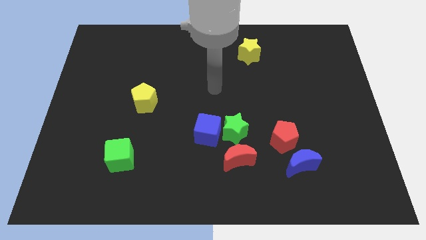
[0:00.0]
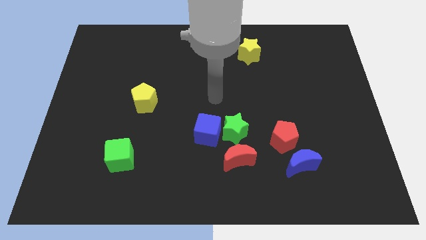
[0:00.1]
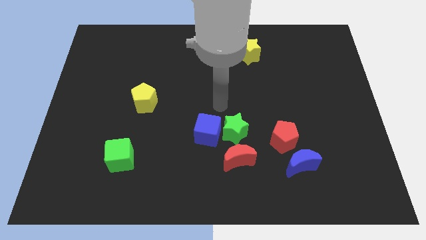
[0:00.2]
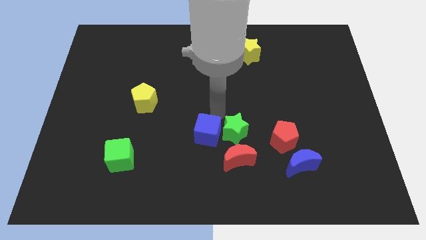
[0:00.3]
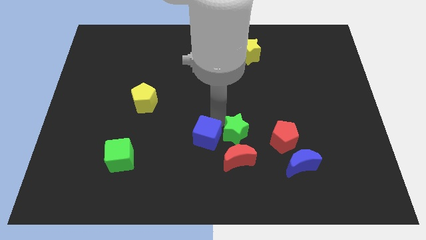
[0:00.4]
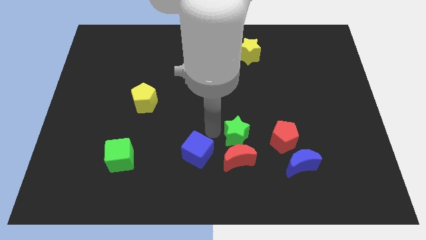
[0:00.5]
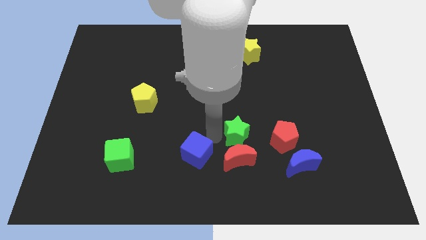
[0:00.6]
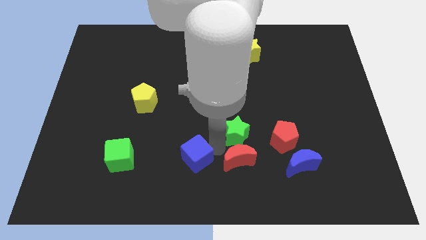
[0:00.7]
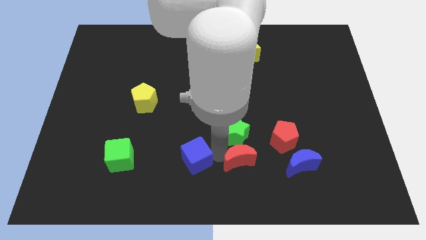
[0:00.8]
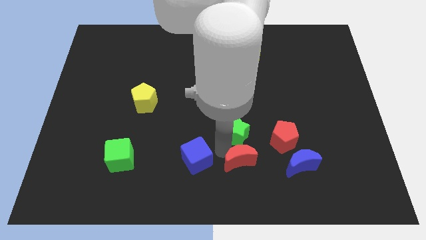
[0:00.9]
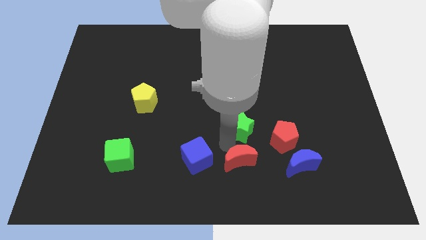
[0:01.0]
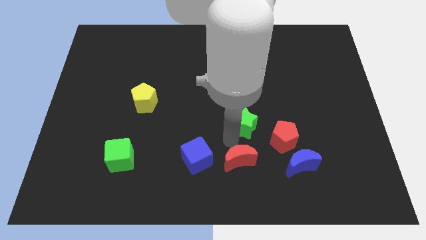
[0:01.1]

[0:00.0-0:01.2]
separate the green star from the blue cube and red moon

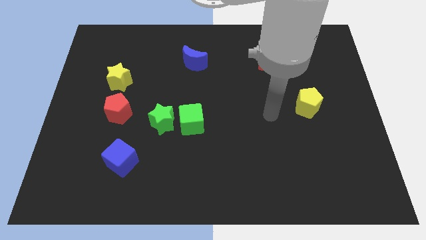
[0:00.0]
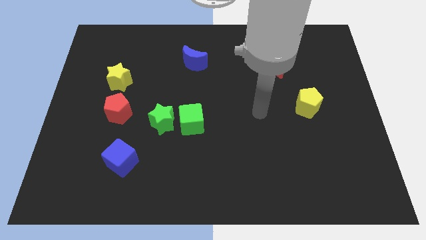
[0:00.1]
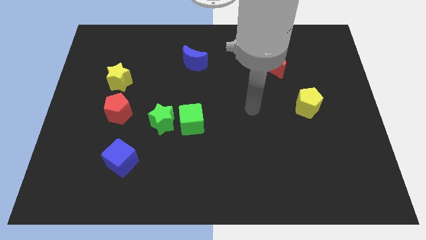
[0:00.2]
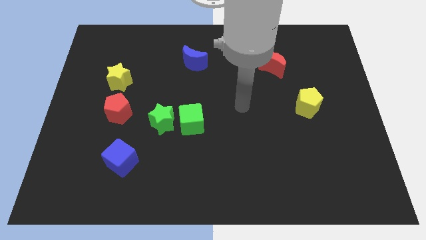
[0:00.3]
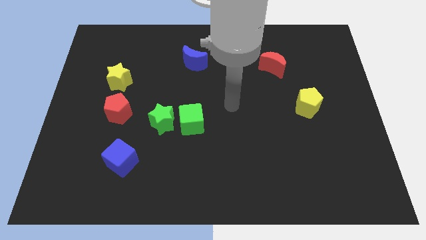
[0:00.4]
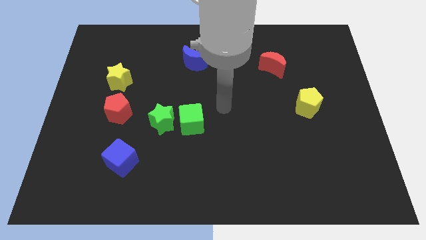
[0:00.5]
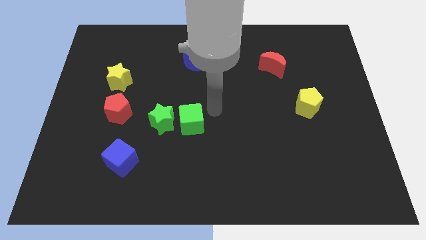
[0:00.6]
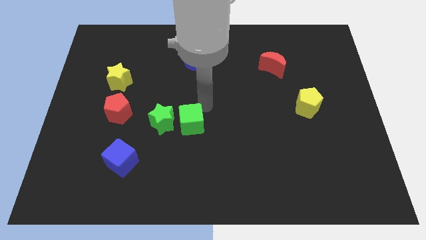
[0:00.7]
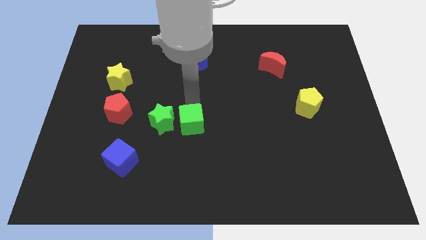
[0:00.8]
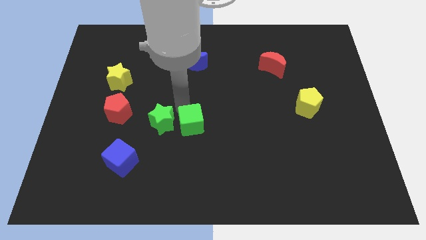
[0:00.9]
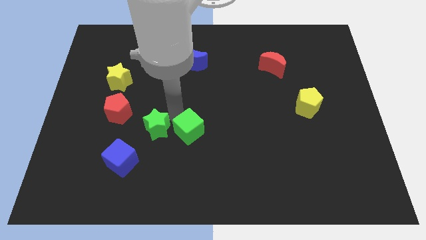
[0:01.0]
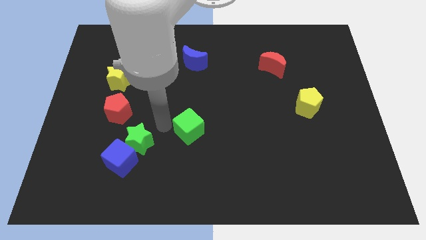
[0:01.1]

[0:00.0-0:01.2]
separate the green cube from the green star

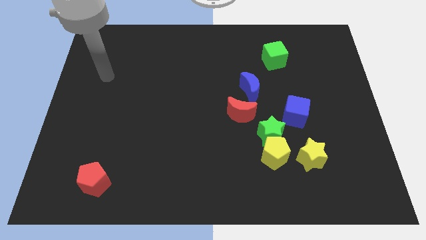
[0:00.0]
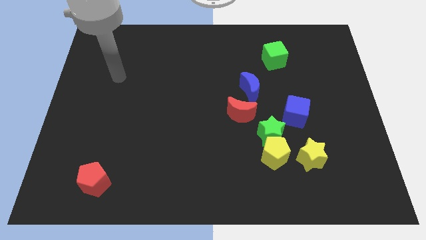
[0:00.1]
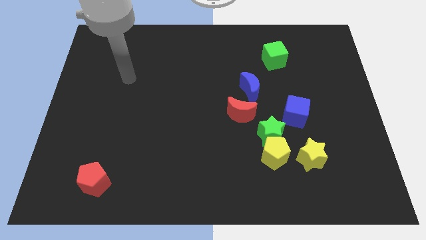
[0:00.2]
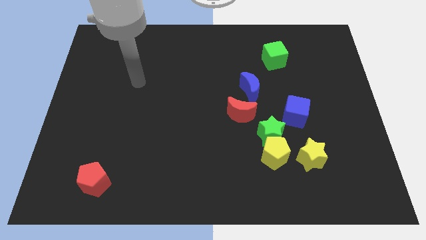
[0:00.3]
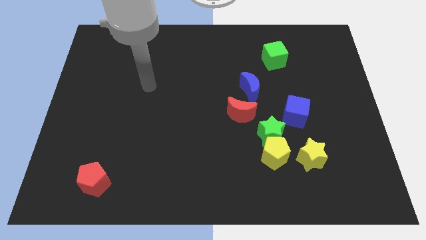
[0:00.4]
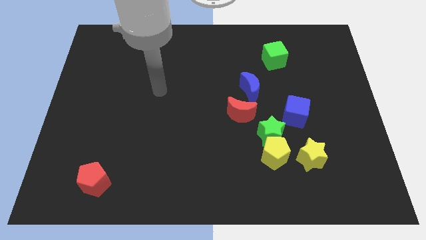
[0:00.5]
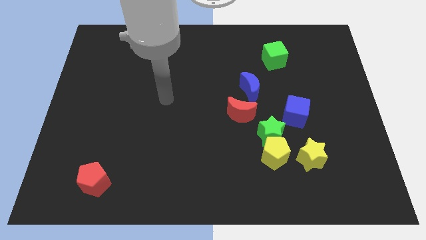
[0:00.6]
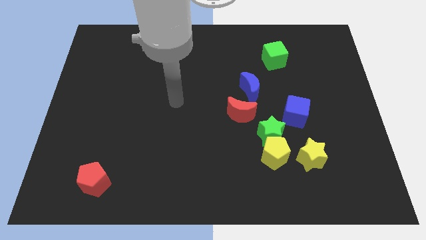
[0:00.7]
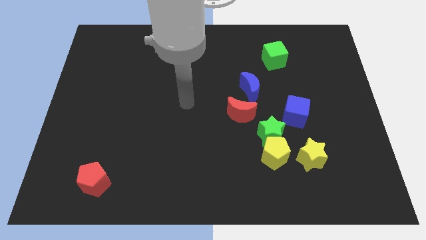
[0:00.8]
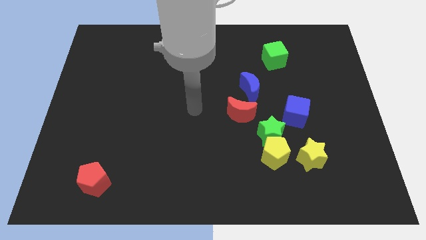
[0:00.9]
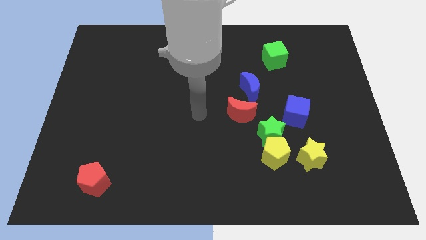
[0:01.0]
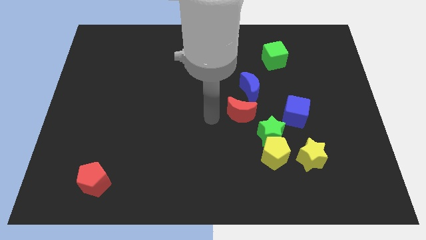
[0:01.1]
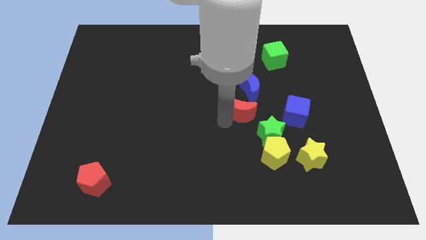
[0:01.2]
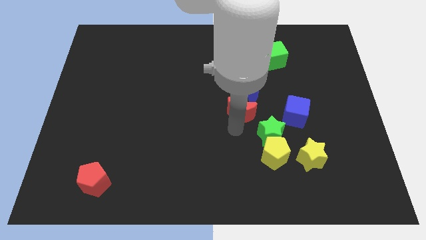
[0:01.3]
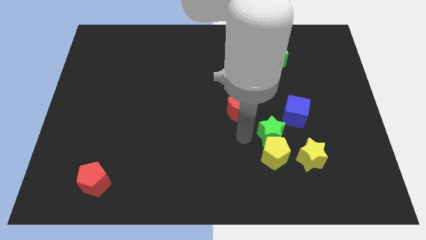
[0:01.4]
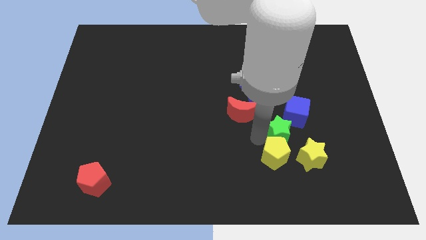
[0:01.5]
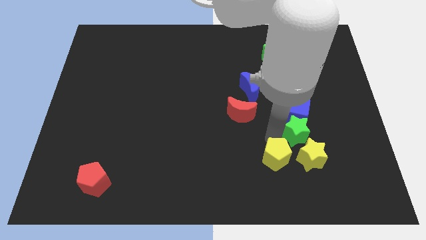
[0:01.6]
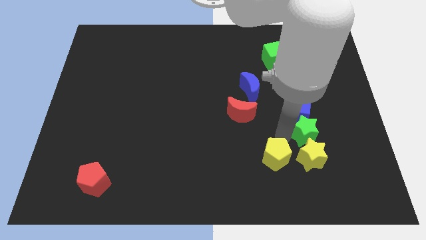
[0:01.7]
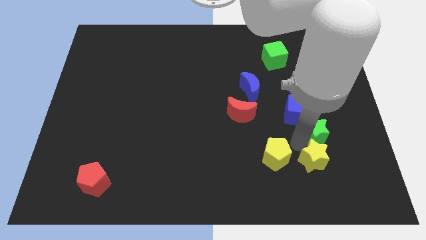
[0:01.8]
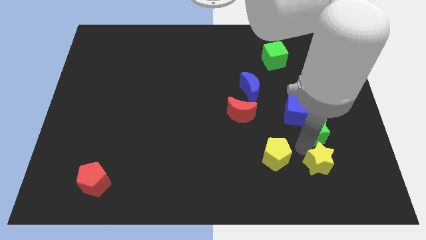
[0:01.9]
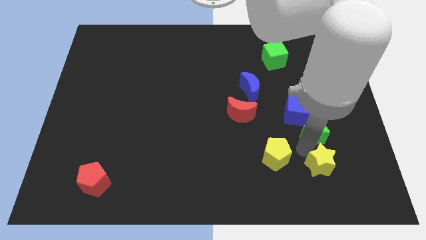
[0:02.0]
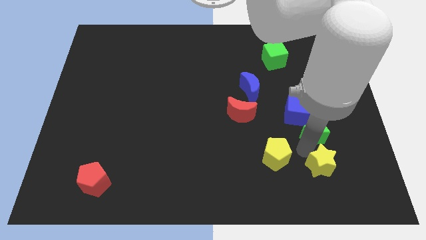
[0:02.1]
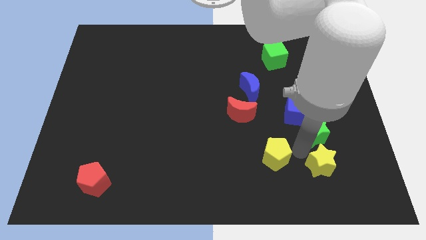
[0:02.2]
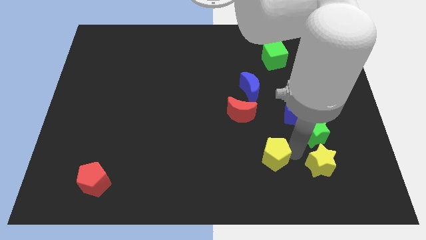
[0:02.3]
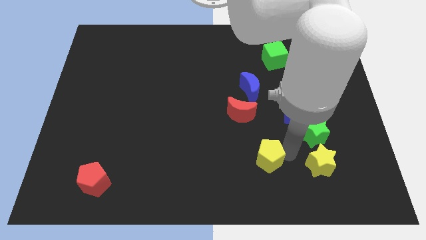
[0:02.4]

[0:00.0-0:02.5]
separate the yellow pentagon from the green star and yellow star

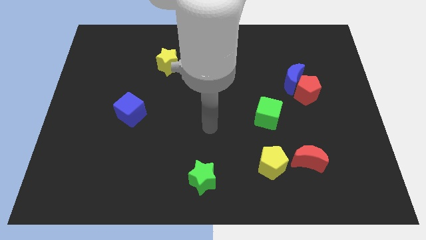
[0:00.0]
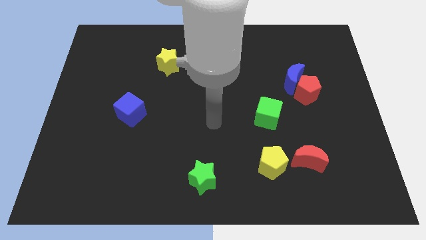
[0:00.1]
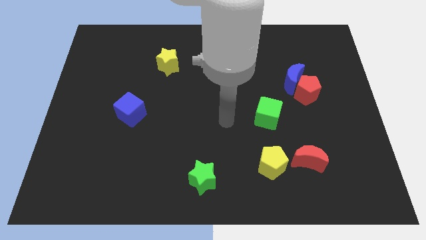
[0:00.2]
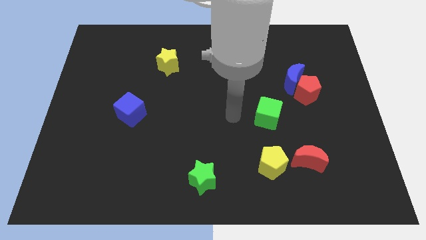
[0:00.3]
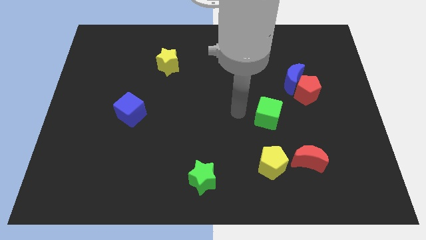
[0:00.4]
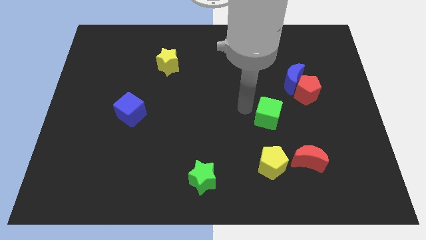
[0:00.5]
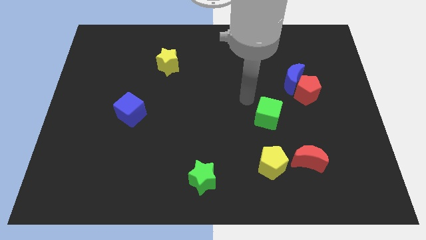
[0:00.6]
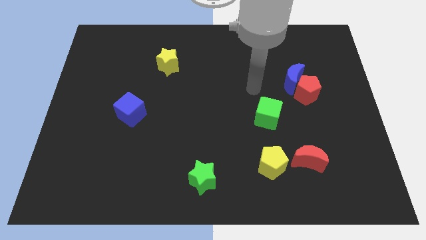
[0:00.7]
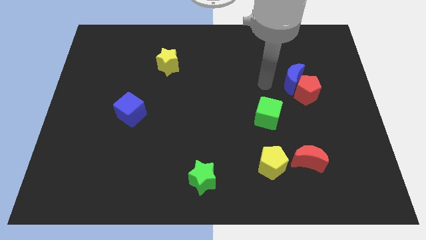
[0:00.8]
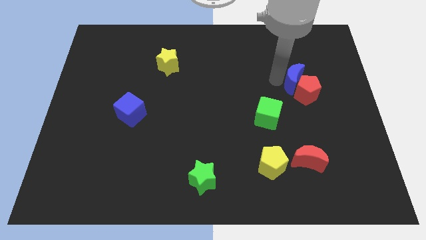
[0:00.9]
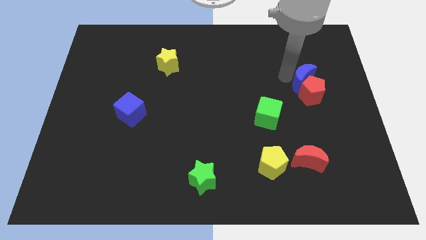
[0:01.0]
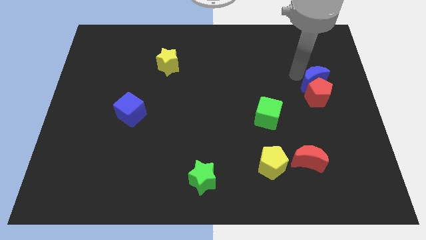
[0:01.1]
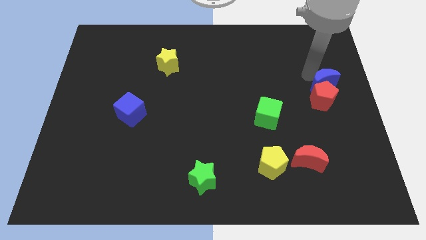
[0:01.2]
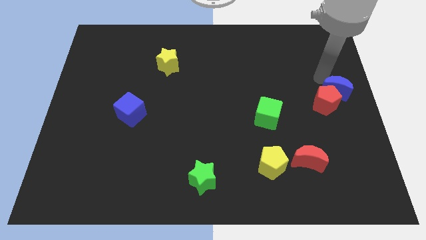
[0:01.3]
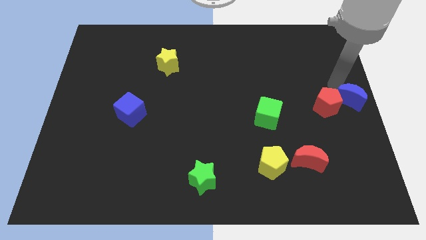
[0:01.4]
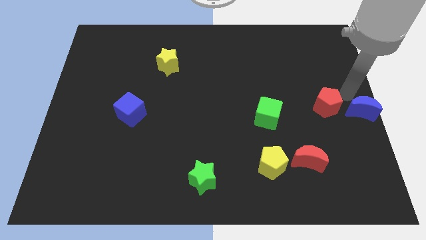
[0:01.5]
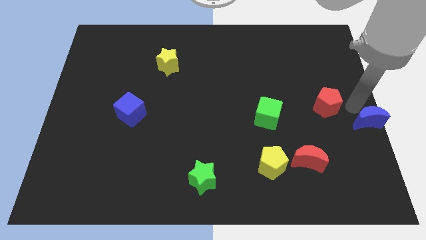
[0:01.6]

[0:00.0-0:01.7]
move the red pentagon away from the blue moon

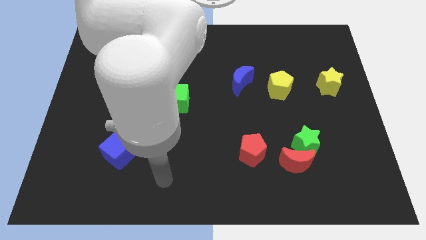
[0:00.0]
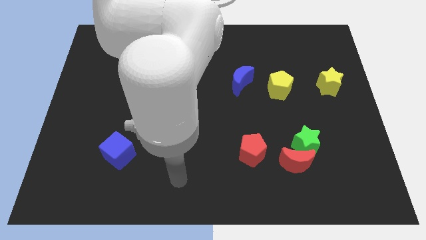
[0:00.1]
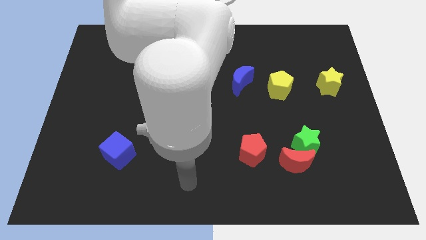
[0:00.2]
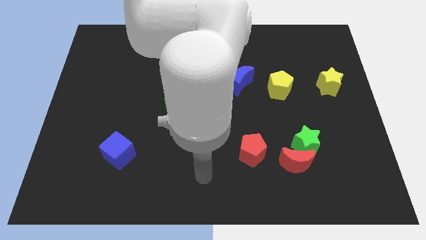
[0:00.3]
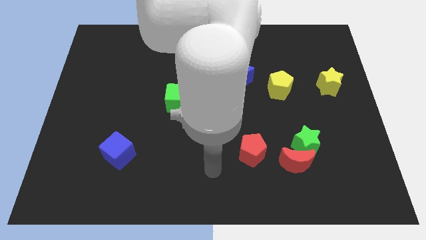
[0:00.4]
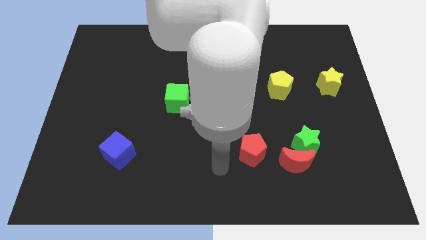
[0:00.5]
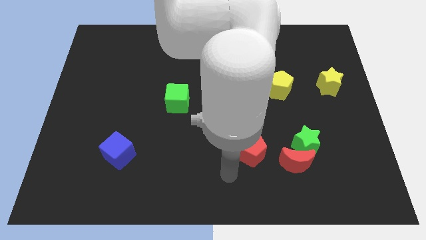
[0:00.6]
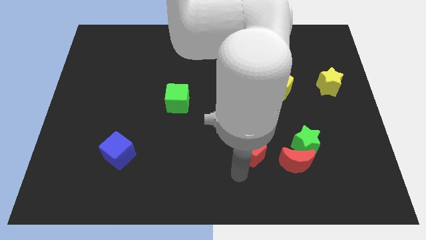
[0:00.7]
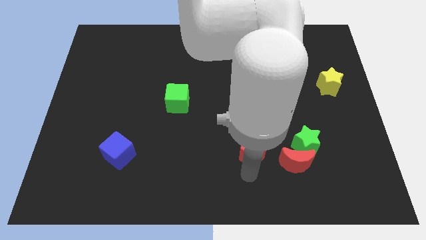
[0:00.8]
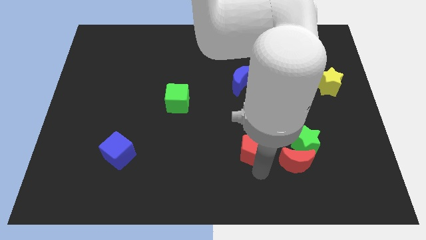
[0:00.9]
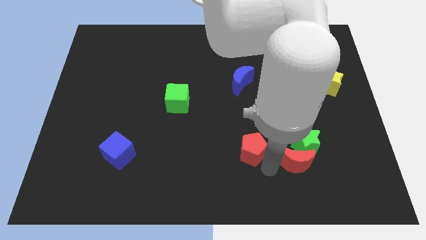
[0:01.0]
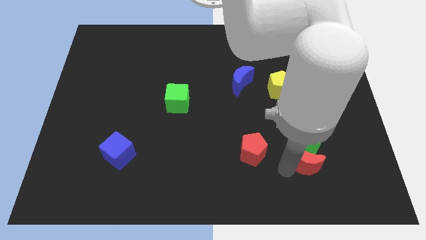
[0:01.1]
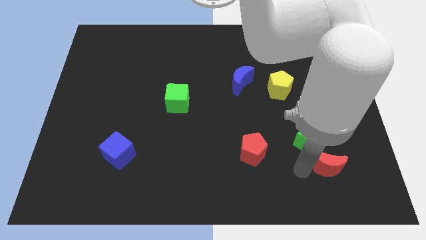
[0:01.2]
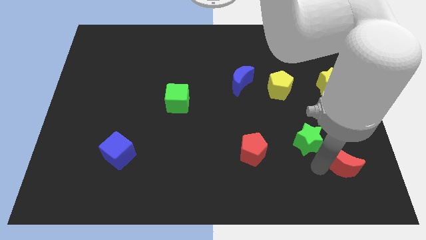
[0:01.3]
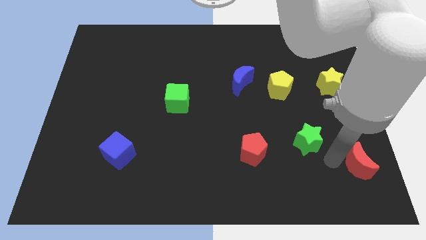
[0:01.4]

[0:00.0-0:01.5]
pull the green star apart from the red moon

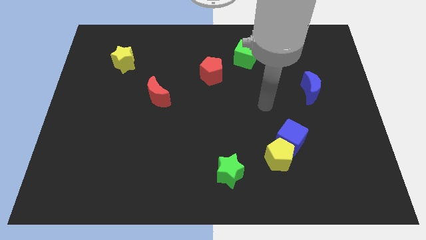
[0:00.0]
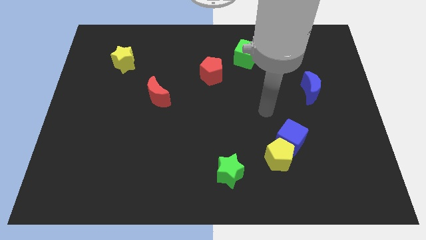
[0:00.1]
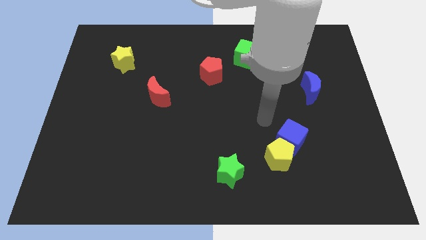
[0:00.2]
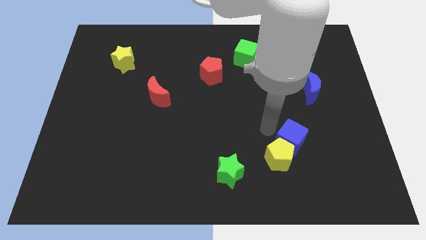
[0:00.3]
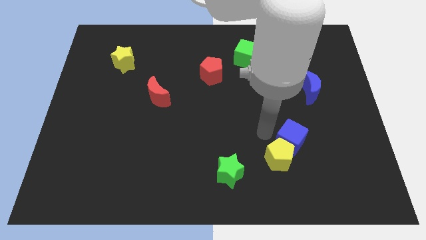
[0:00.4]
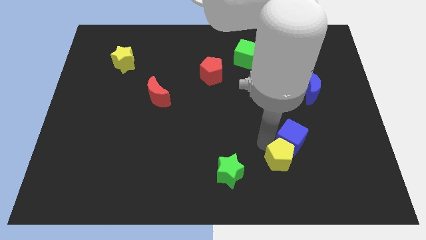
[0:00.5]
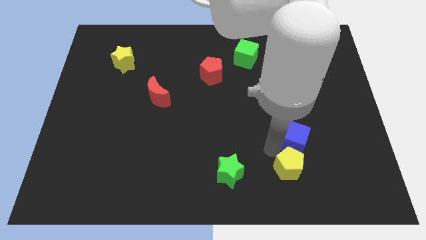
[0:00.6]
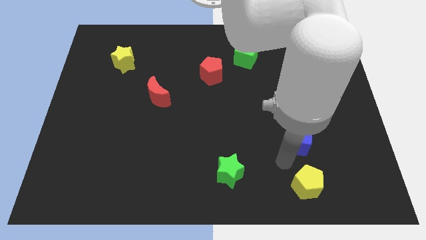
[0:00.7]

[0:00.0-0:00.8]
separate the blue cube from the yellow pentagon

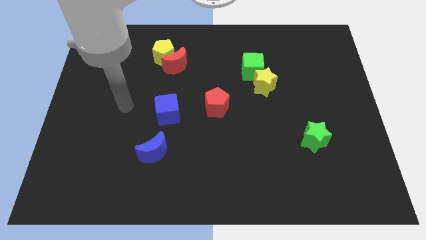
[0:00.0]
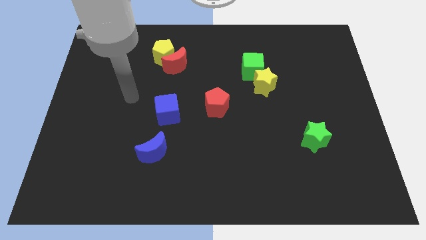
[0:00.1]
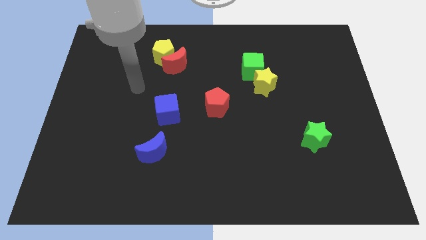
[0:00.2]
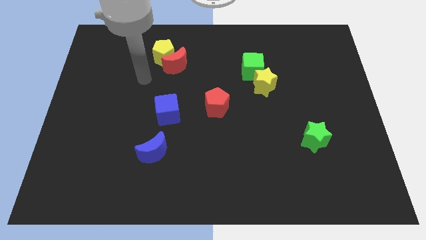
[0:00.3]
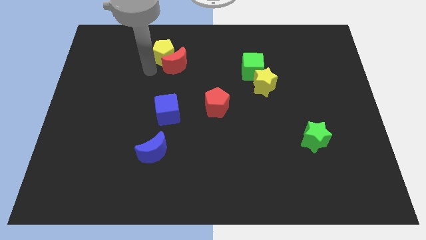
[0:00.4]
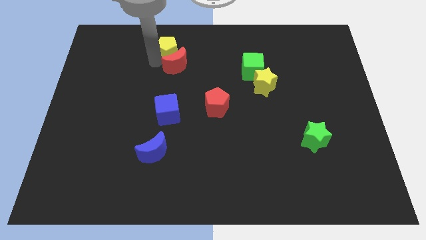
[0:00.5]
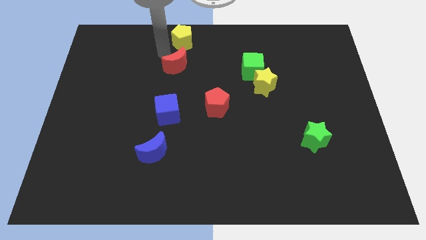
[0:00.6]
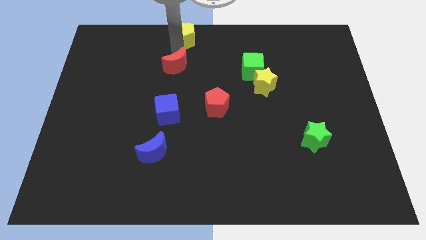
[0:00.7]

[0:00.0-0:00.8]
pull the red moon apart from the yellow pentagon
